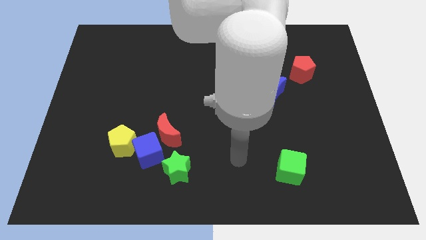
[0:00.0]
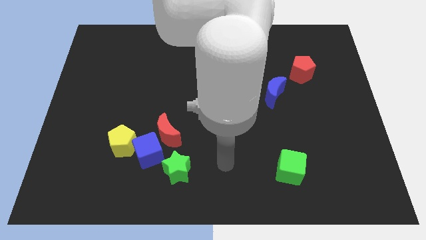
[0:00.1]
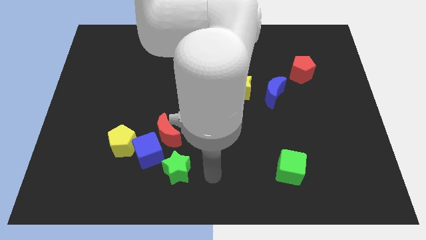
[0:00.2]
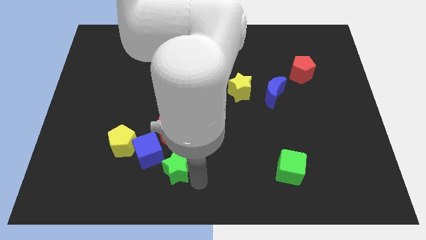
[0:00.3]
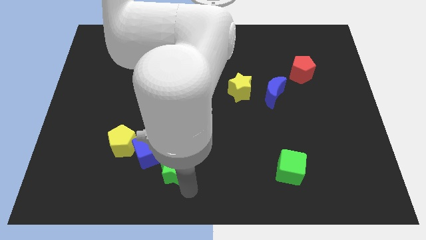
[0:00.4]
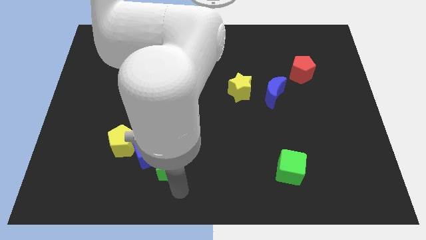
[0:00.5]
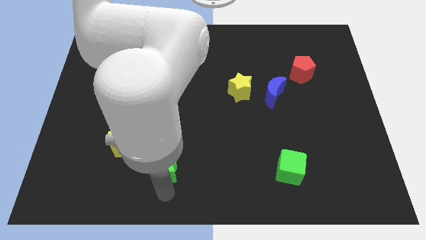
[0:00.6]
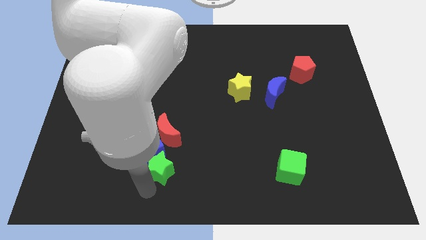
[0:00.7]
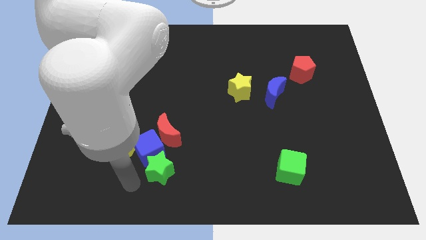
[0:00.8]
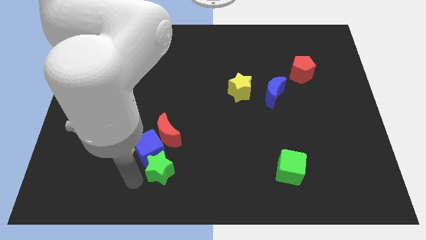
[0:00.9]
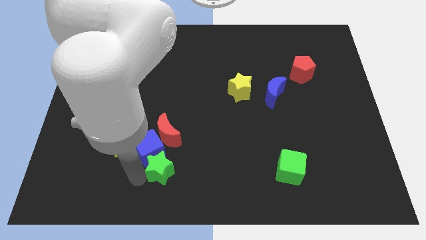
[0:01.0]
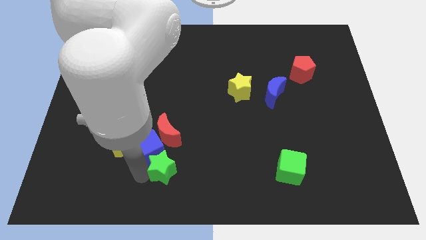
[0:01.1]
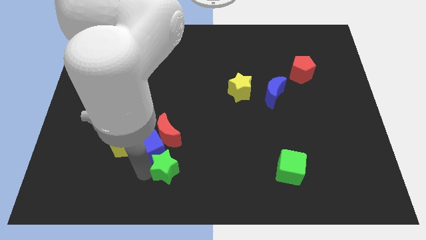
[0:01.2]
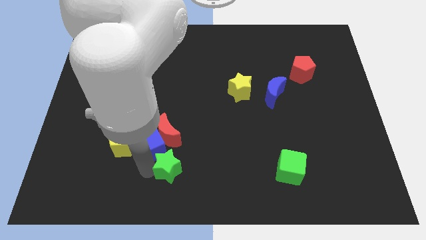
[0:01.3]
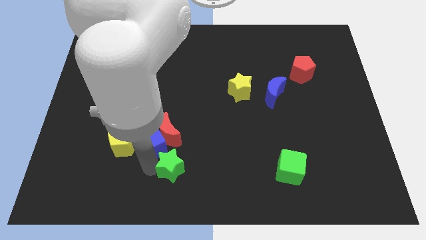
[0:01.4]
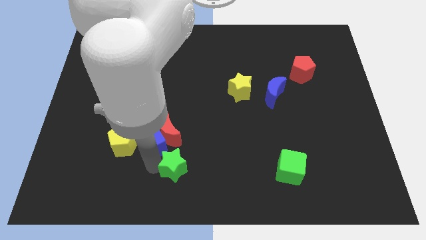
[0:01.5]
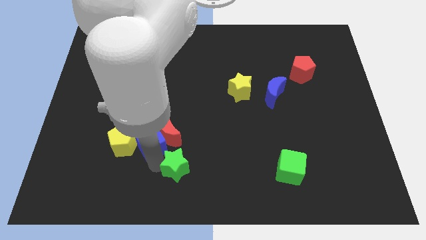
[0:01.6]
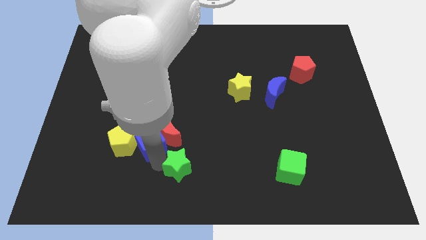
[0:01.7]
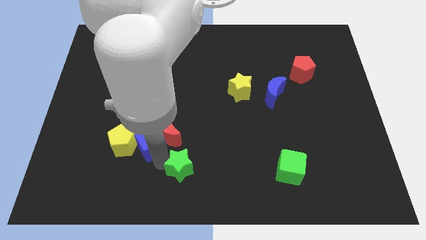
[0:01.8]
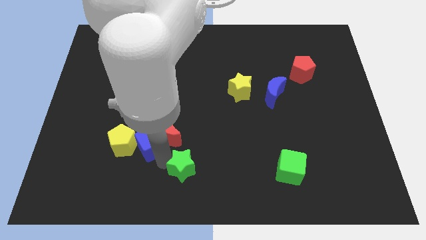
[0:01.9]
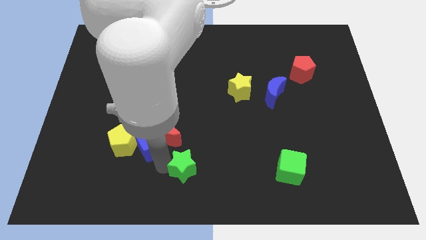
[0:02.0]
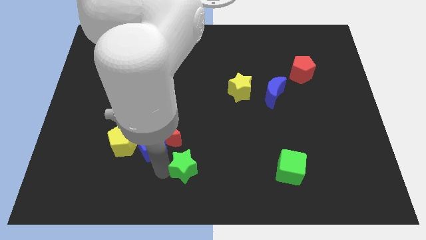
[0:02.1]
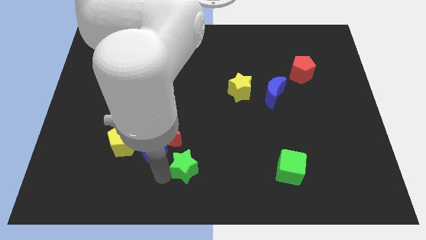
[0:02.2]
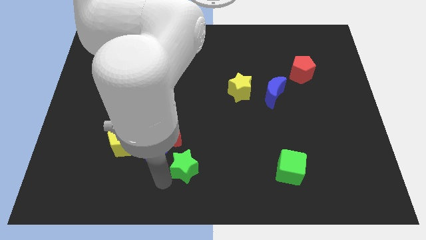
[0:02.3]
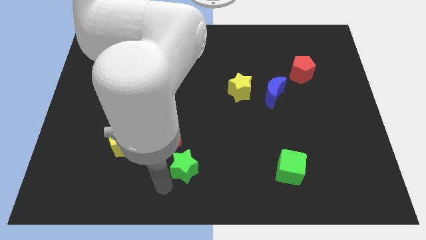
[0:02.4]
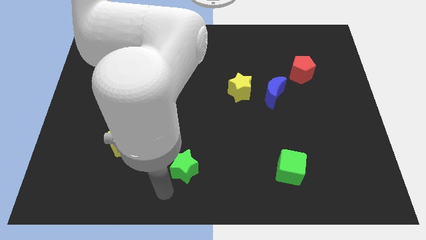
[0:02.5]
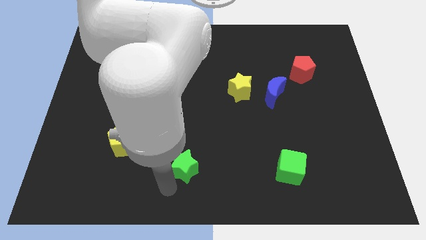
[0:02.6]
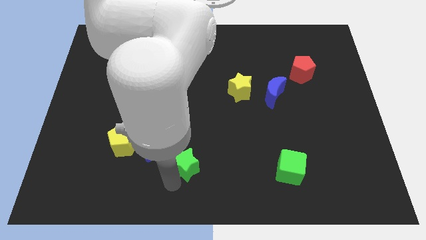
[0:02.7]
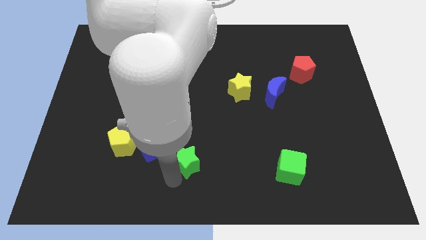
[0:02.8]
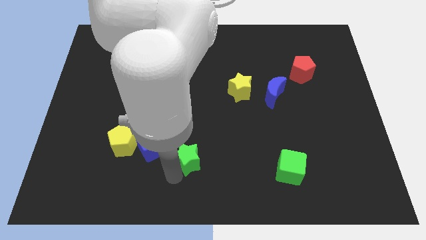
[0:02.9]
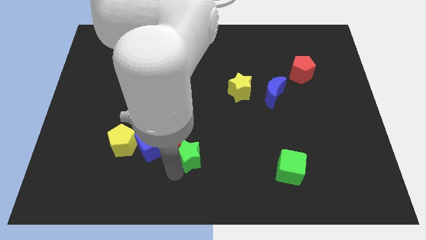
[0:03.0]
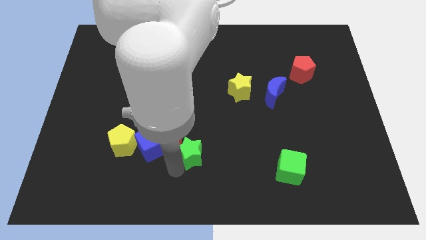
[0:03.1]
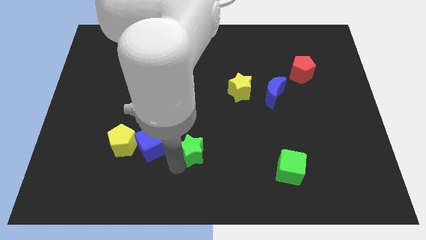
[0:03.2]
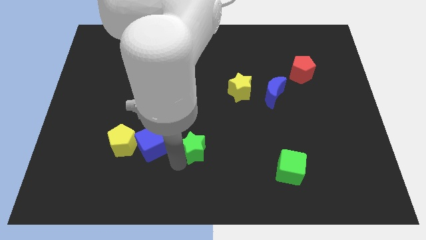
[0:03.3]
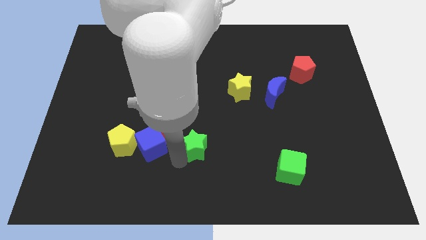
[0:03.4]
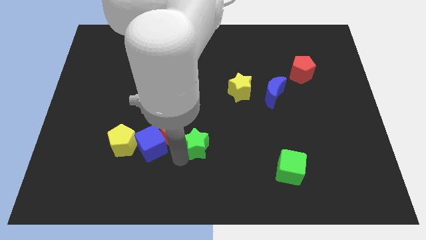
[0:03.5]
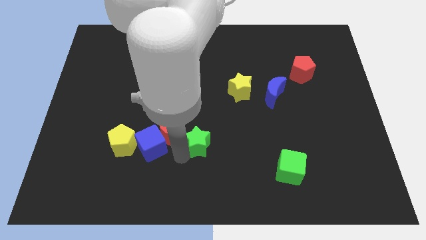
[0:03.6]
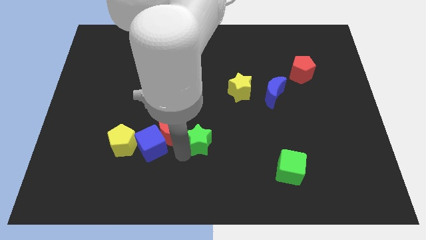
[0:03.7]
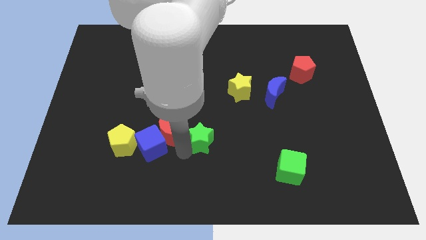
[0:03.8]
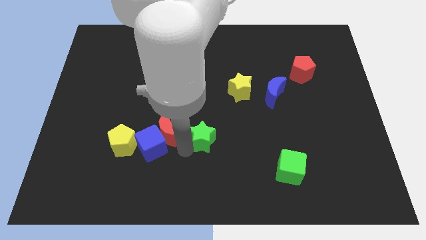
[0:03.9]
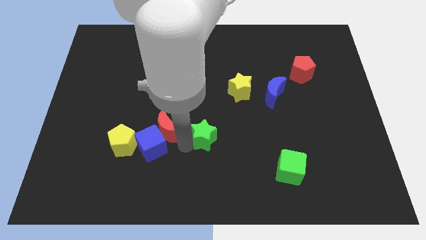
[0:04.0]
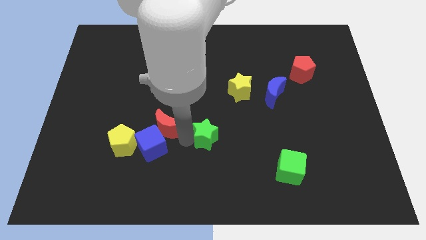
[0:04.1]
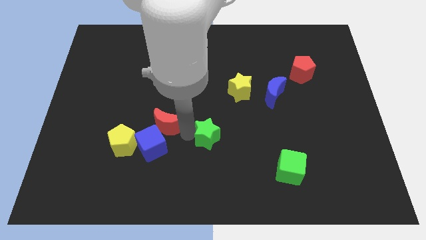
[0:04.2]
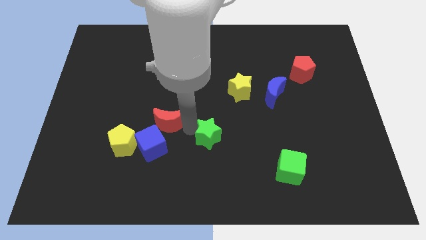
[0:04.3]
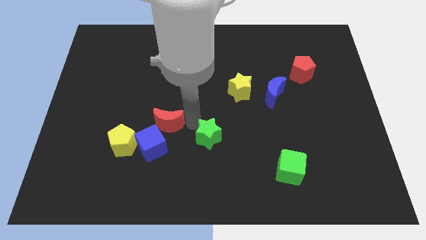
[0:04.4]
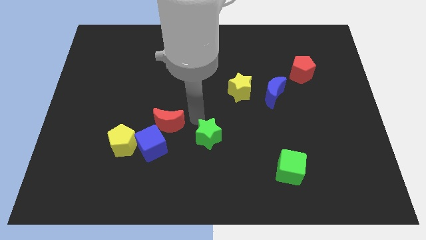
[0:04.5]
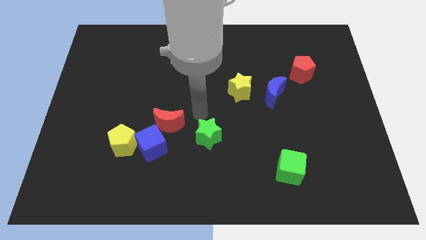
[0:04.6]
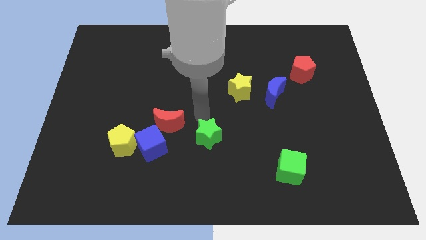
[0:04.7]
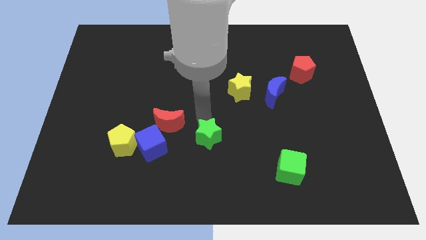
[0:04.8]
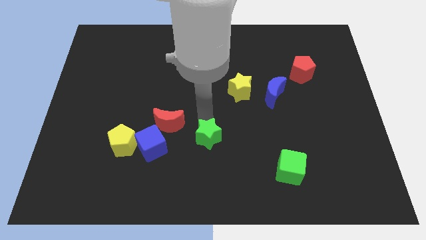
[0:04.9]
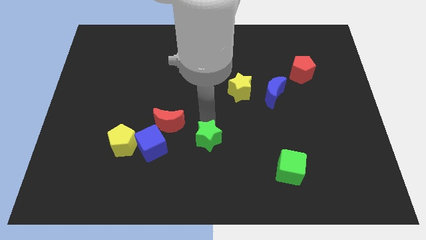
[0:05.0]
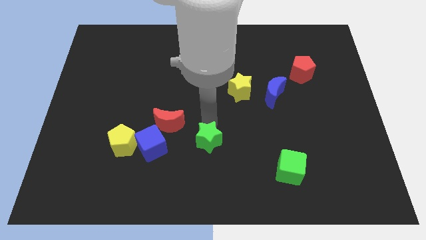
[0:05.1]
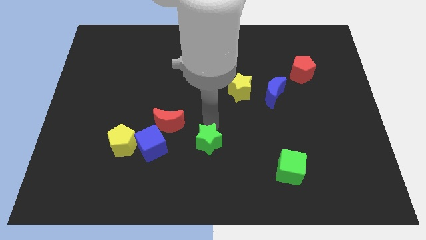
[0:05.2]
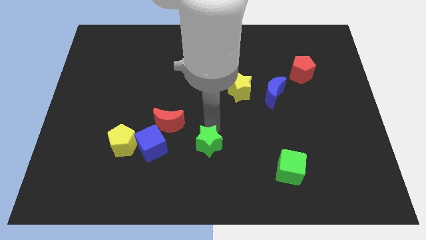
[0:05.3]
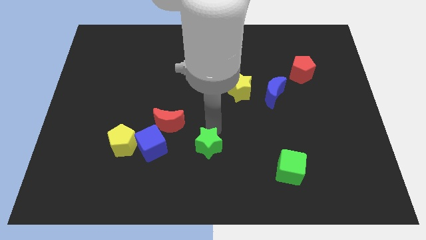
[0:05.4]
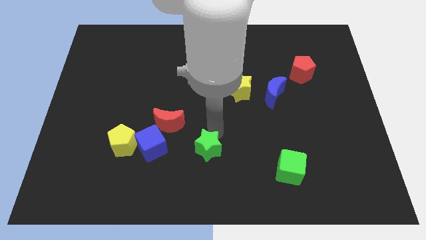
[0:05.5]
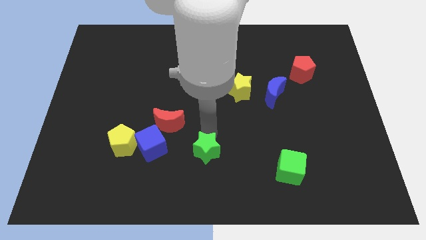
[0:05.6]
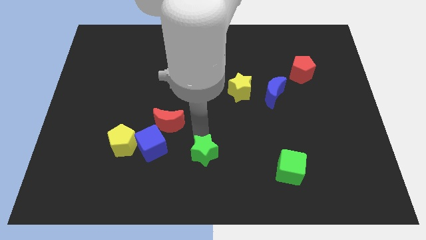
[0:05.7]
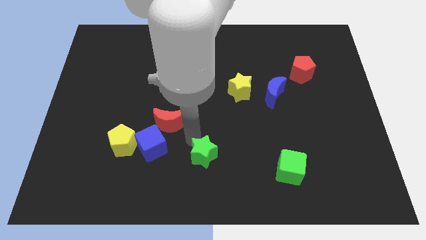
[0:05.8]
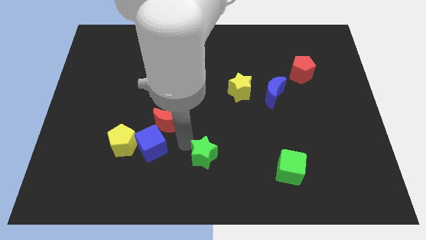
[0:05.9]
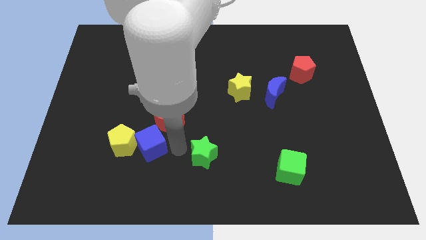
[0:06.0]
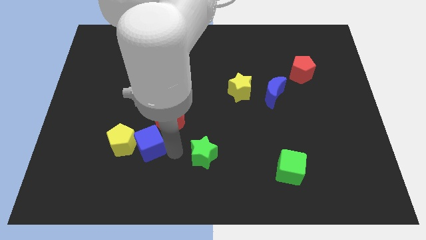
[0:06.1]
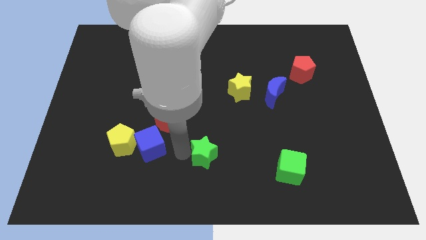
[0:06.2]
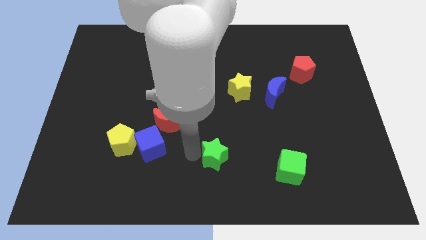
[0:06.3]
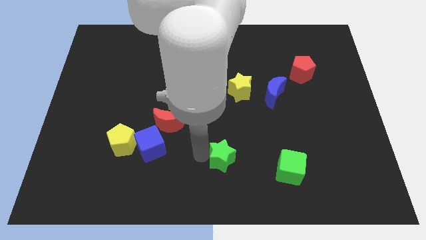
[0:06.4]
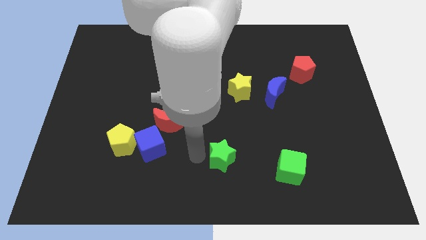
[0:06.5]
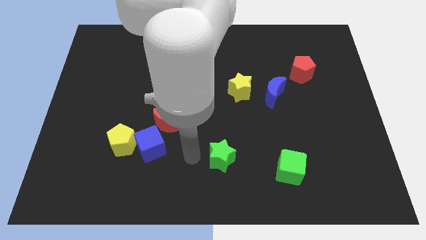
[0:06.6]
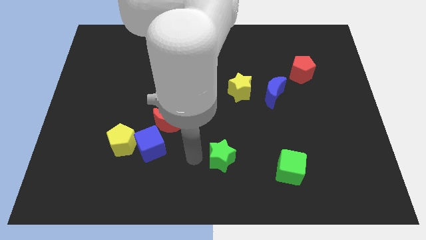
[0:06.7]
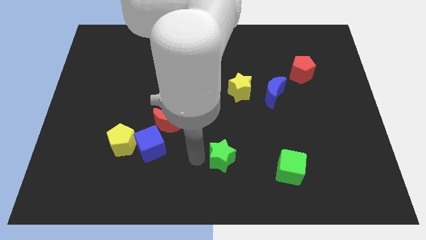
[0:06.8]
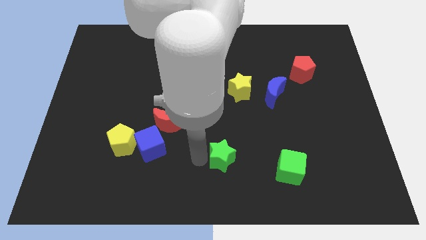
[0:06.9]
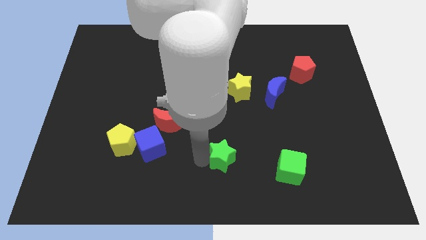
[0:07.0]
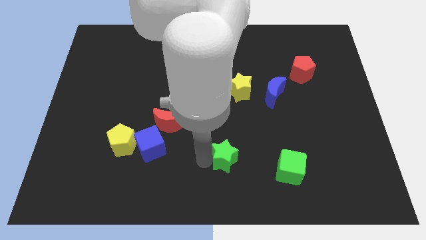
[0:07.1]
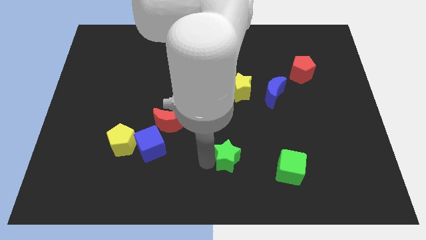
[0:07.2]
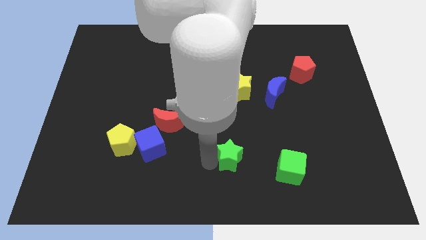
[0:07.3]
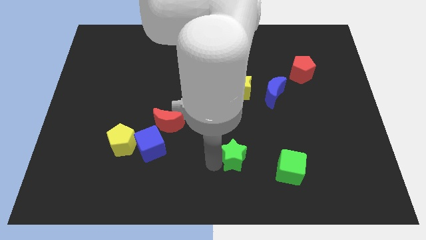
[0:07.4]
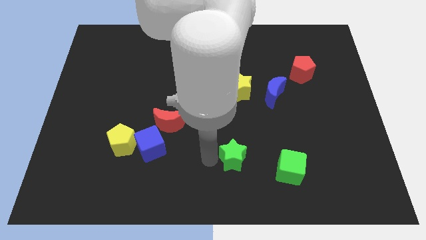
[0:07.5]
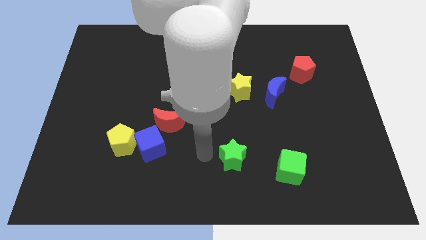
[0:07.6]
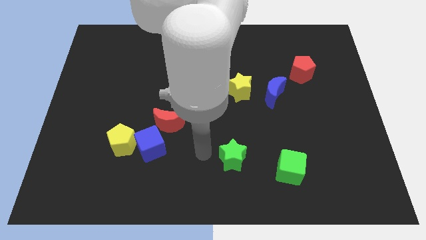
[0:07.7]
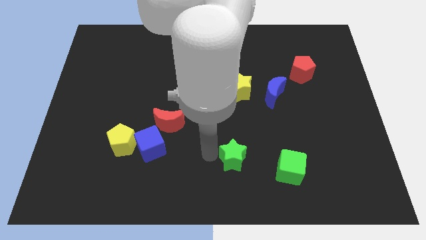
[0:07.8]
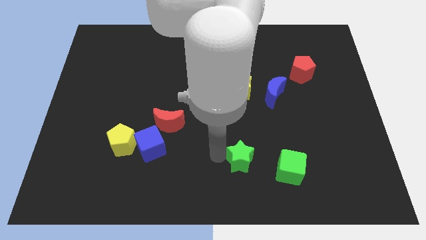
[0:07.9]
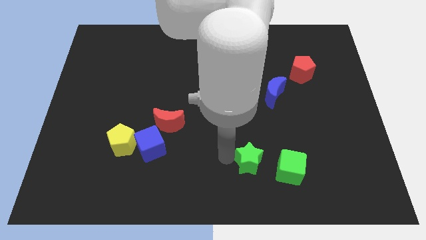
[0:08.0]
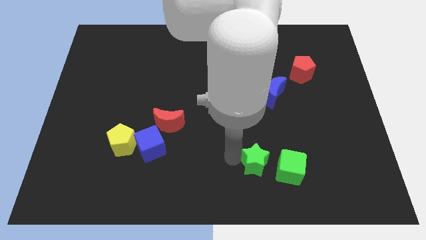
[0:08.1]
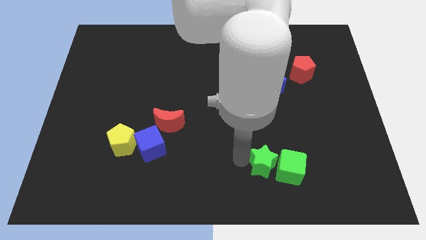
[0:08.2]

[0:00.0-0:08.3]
slide the green star close to the green cube
